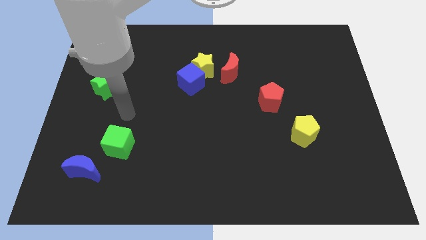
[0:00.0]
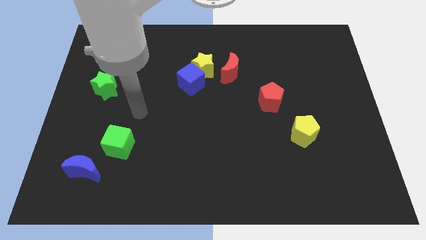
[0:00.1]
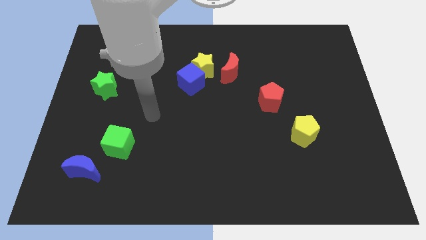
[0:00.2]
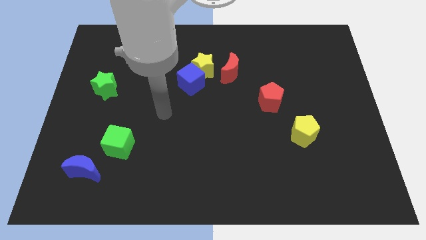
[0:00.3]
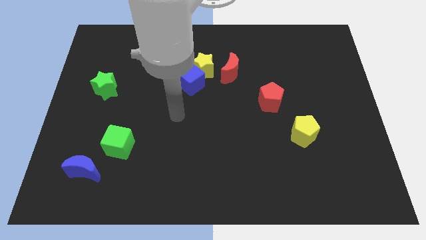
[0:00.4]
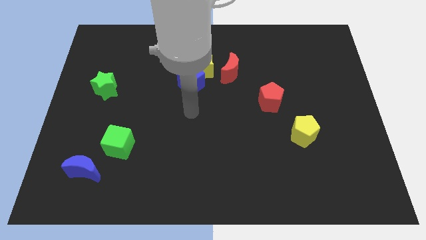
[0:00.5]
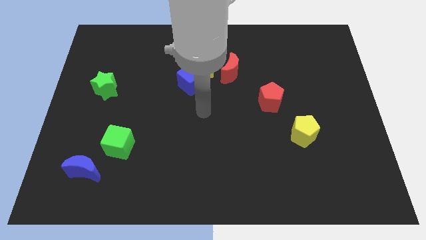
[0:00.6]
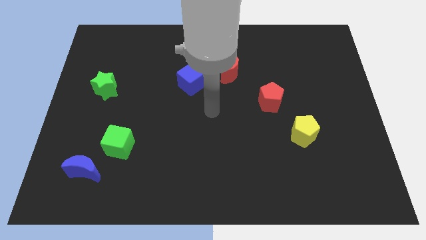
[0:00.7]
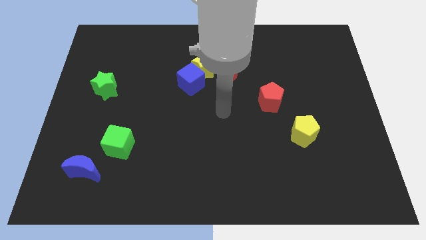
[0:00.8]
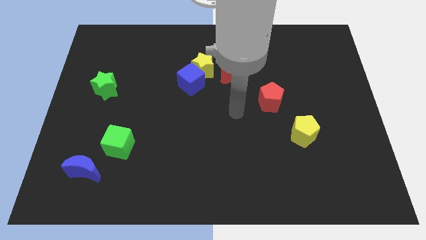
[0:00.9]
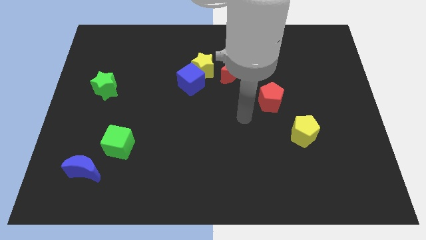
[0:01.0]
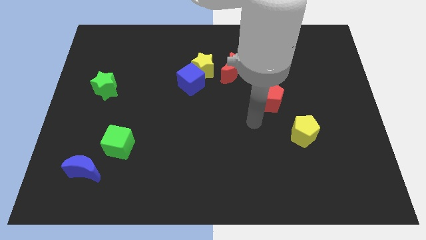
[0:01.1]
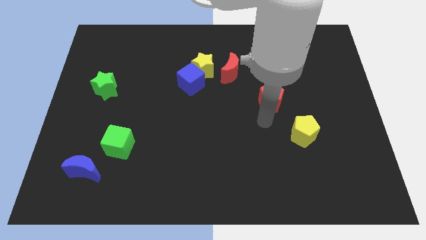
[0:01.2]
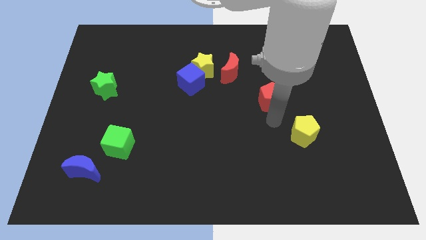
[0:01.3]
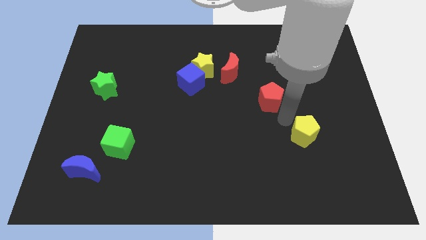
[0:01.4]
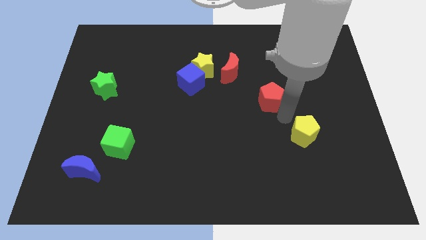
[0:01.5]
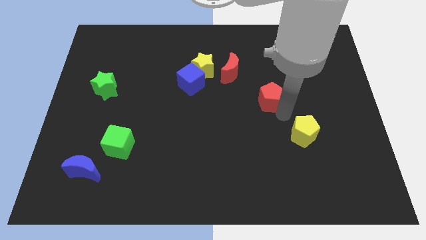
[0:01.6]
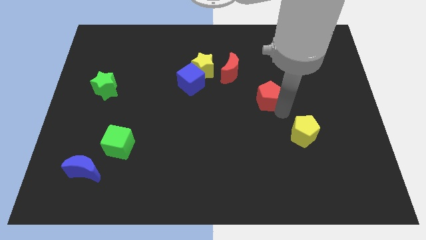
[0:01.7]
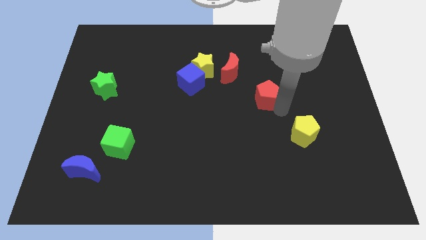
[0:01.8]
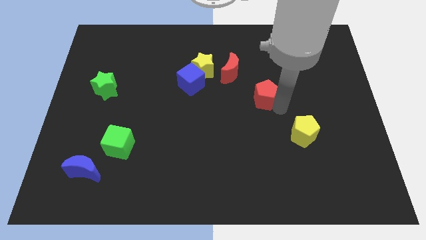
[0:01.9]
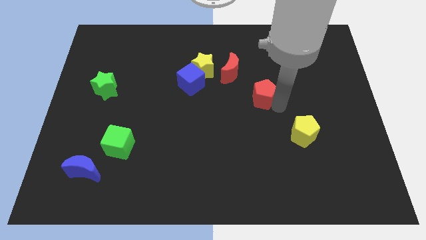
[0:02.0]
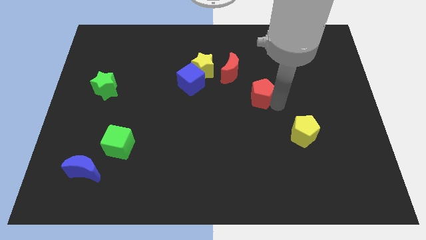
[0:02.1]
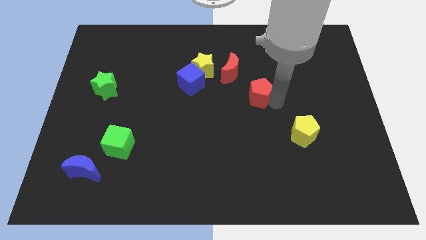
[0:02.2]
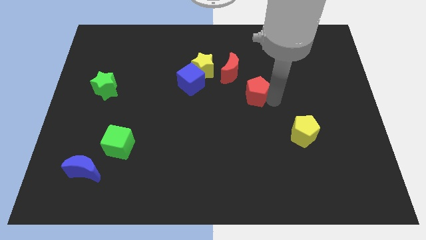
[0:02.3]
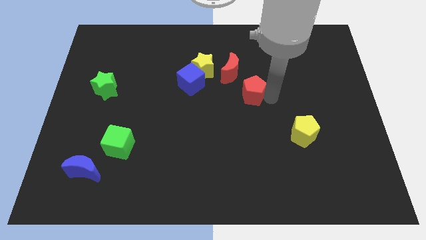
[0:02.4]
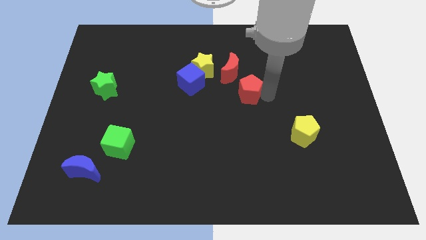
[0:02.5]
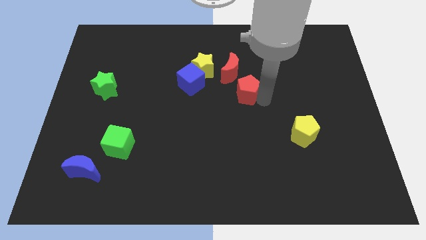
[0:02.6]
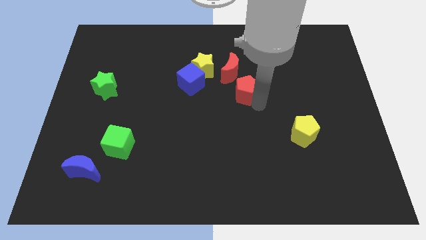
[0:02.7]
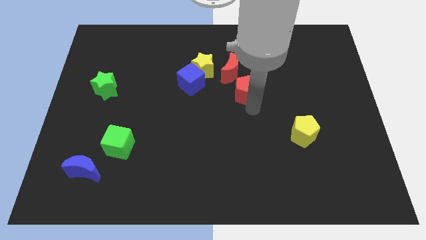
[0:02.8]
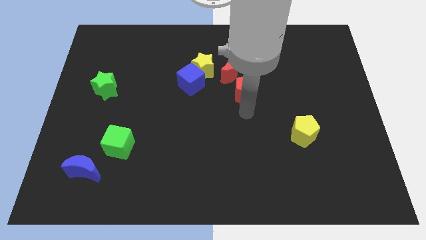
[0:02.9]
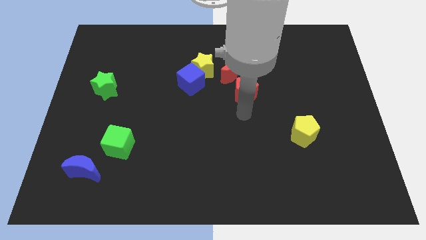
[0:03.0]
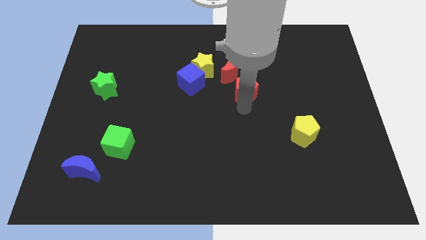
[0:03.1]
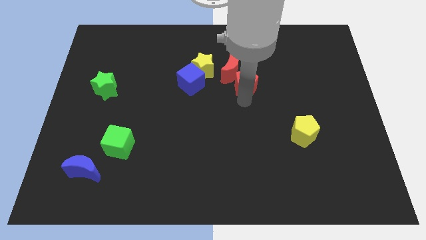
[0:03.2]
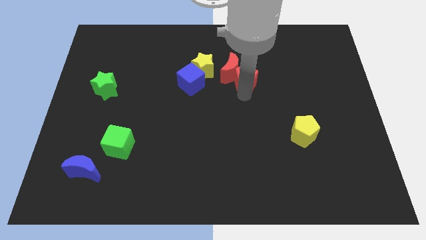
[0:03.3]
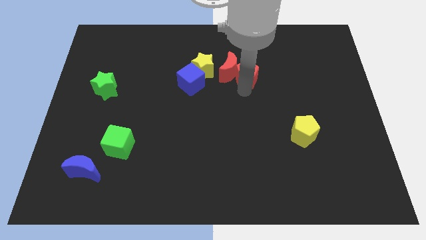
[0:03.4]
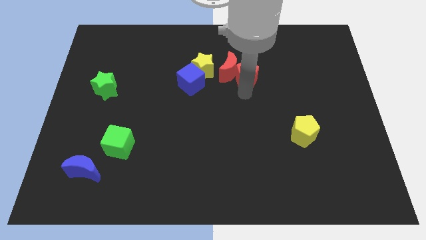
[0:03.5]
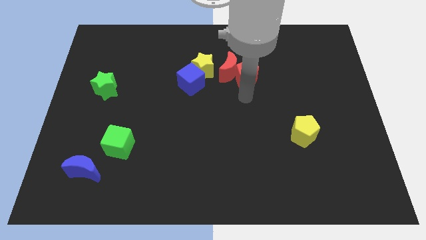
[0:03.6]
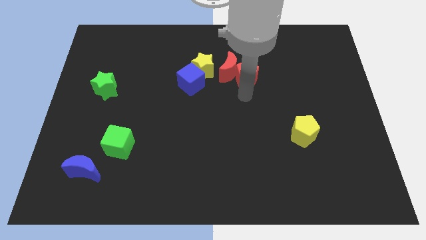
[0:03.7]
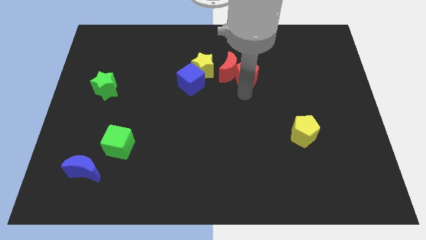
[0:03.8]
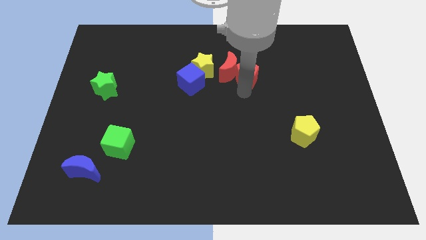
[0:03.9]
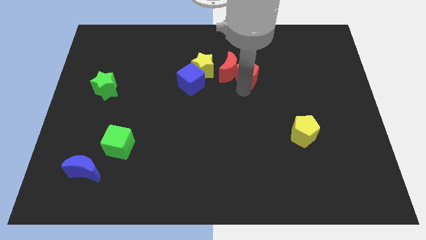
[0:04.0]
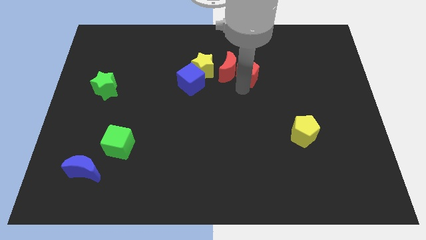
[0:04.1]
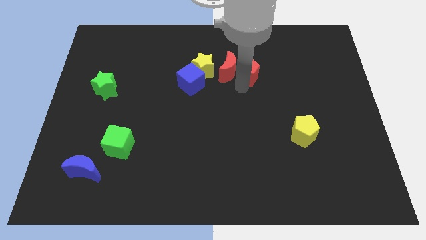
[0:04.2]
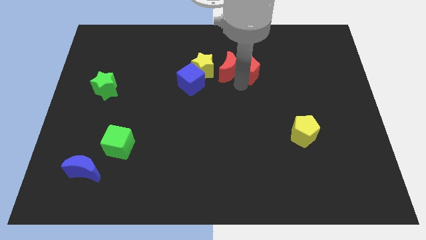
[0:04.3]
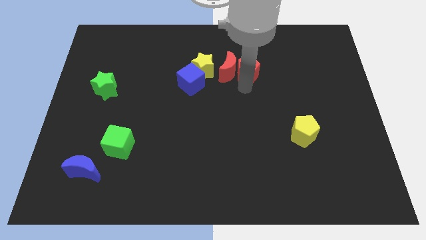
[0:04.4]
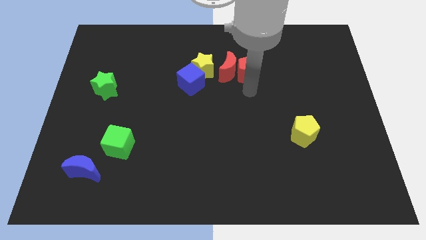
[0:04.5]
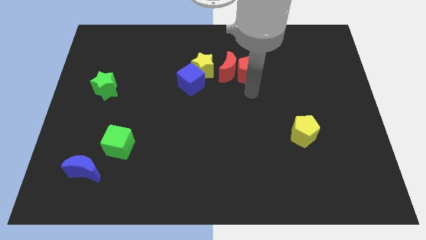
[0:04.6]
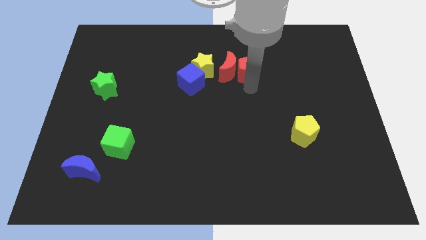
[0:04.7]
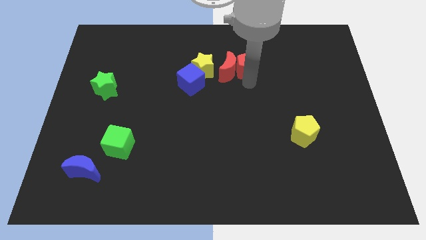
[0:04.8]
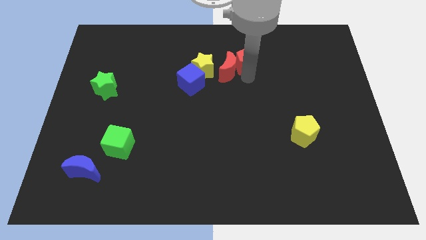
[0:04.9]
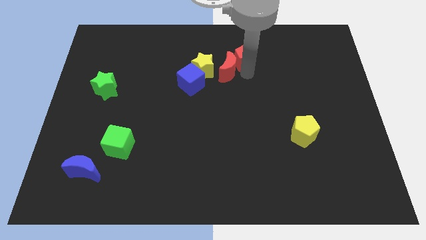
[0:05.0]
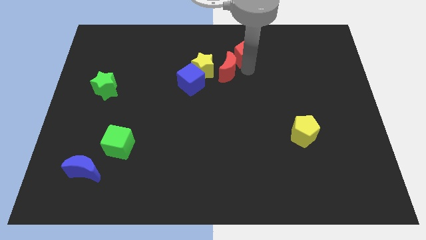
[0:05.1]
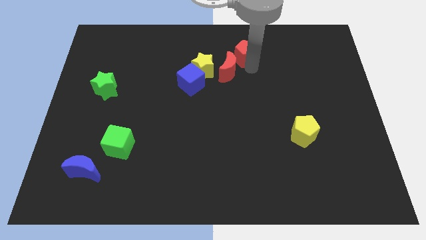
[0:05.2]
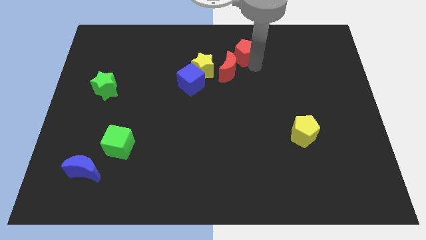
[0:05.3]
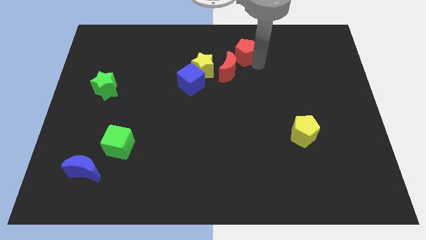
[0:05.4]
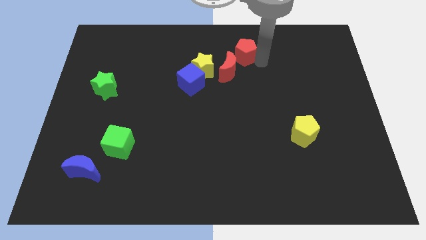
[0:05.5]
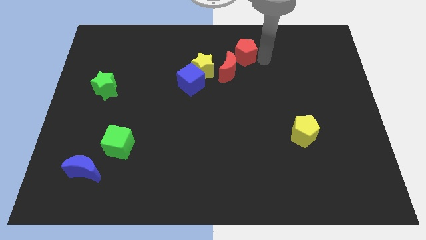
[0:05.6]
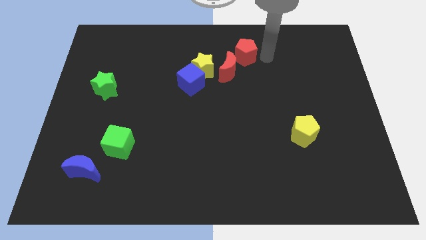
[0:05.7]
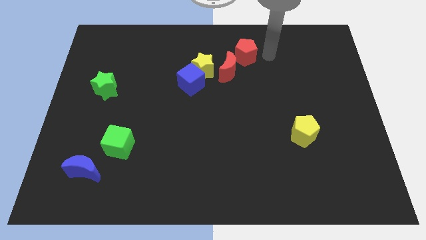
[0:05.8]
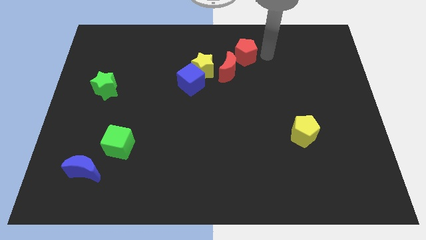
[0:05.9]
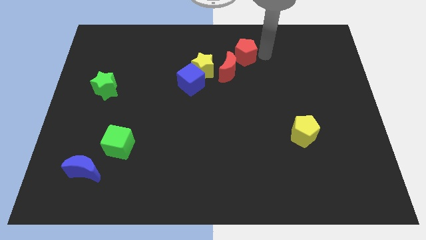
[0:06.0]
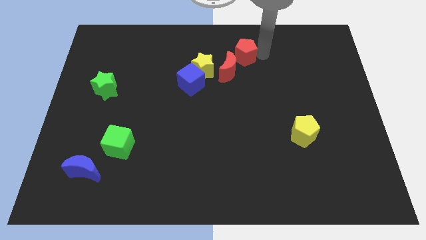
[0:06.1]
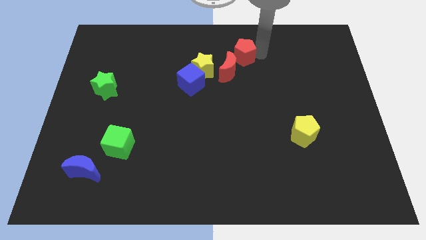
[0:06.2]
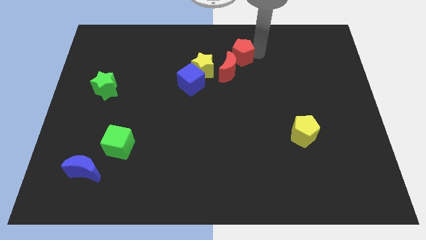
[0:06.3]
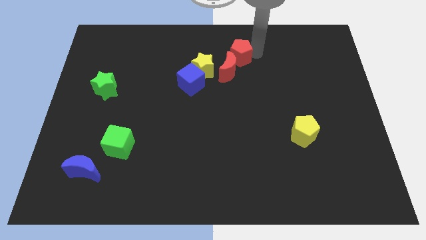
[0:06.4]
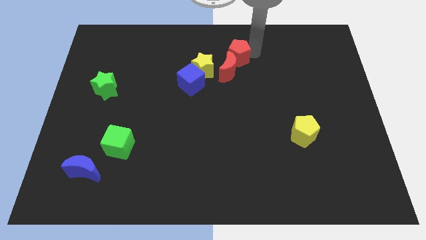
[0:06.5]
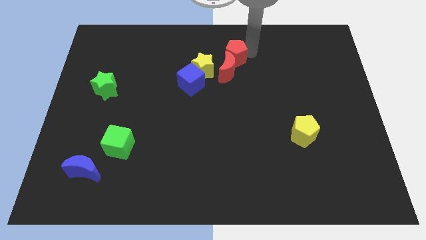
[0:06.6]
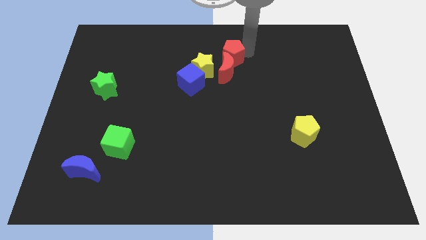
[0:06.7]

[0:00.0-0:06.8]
push the red pentagon to the top left of the red moon

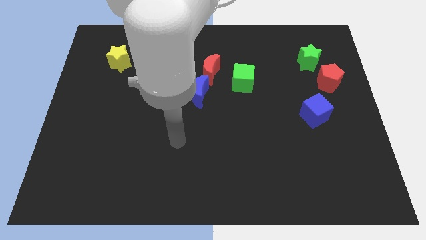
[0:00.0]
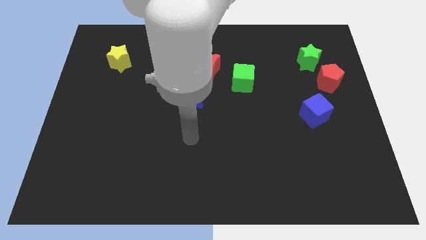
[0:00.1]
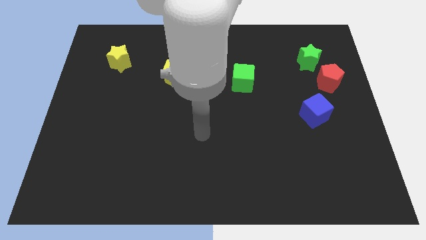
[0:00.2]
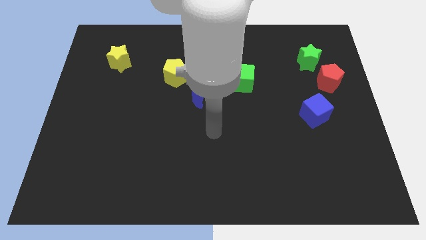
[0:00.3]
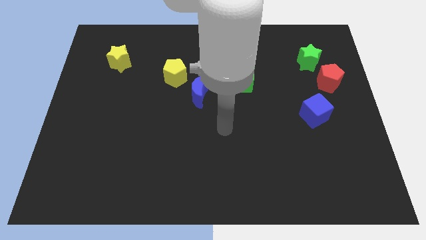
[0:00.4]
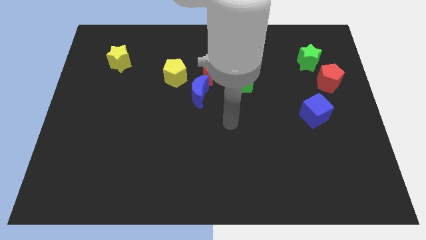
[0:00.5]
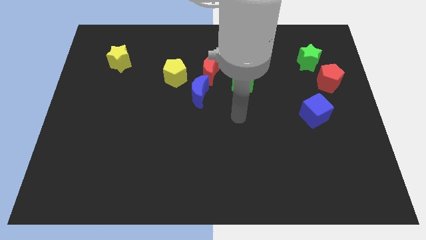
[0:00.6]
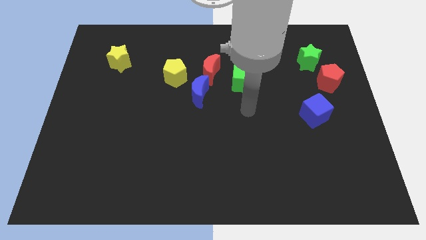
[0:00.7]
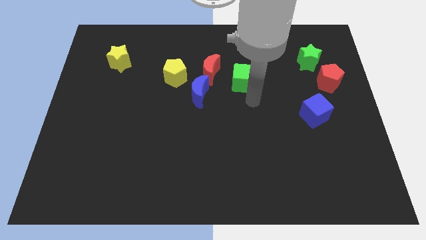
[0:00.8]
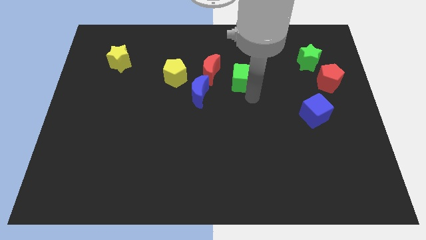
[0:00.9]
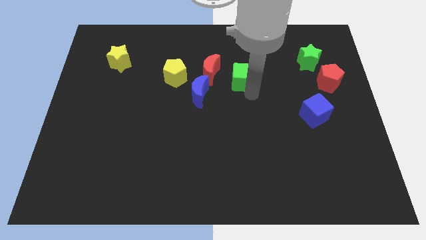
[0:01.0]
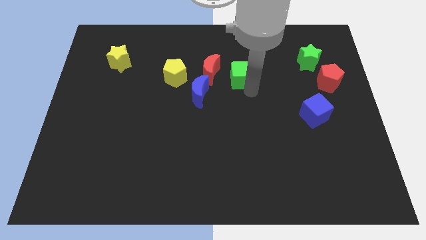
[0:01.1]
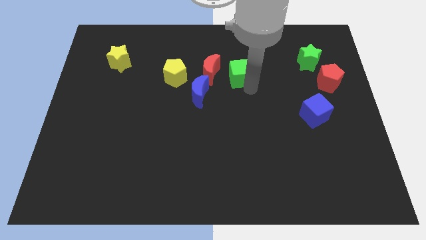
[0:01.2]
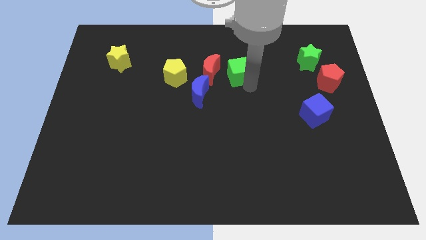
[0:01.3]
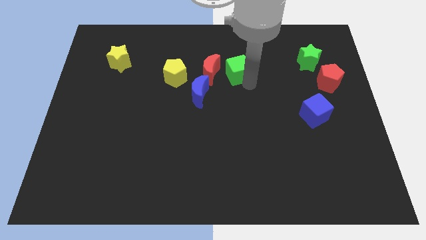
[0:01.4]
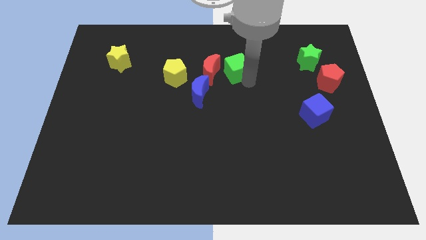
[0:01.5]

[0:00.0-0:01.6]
push the green cube diagonally up and to the right of the red moon
